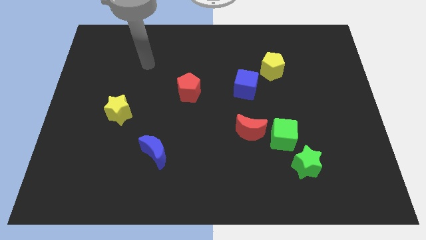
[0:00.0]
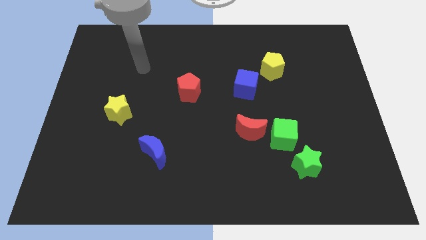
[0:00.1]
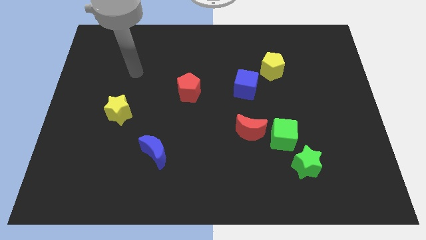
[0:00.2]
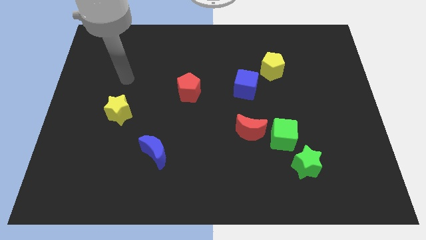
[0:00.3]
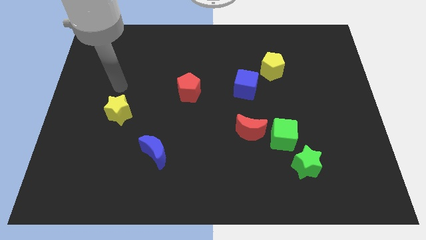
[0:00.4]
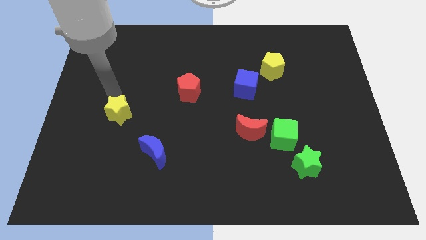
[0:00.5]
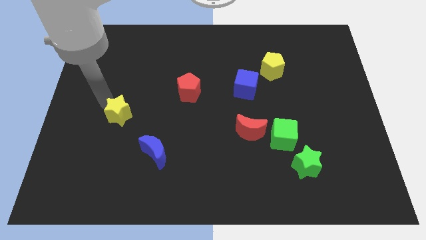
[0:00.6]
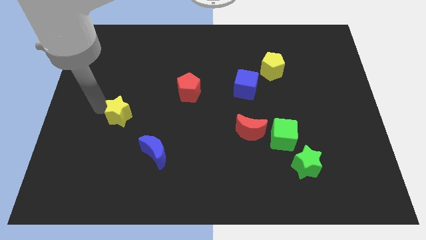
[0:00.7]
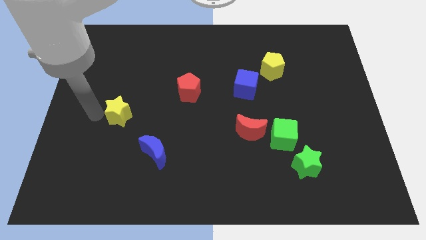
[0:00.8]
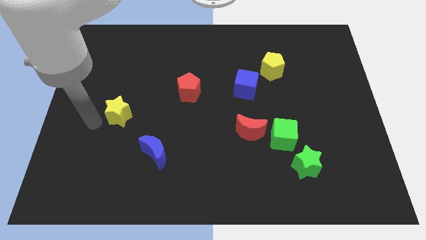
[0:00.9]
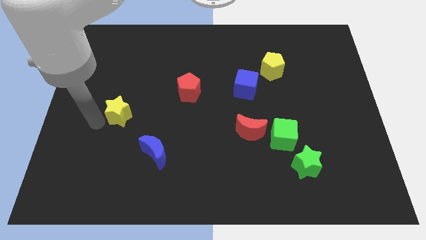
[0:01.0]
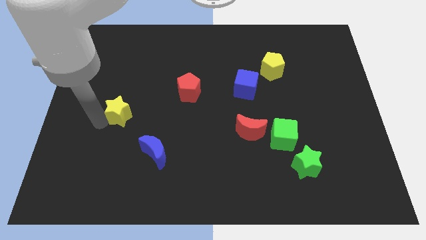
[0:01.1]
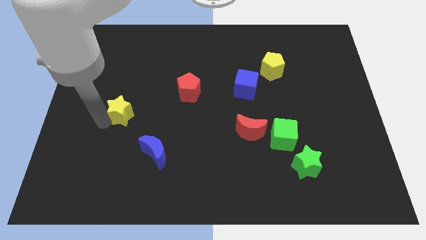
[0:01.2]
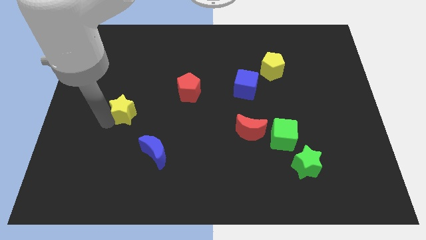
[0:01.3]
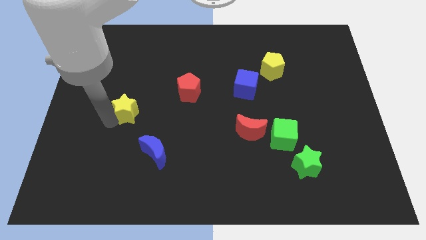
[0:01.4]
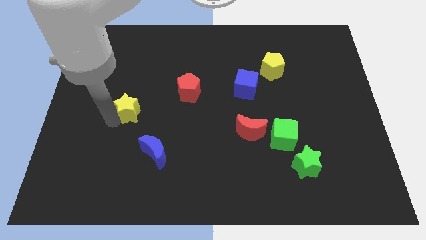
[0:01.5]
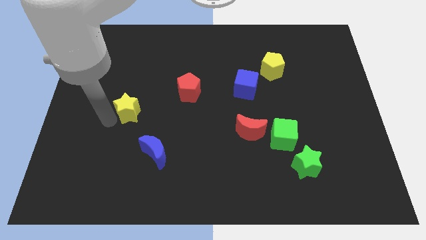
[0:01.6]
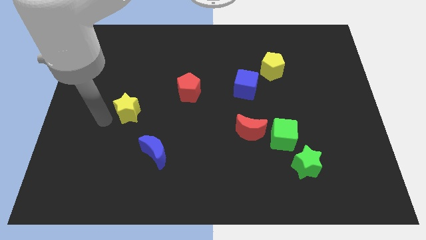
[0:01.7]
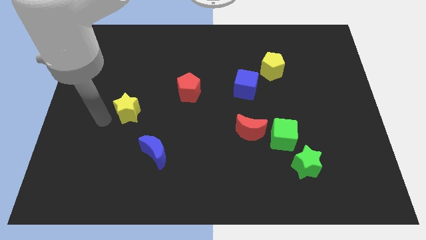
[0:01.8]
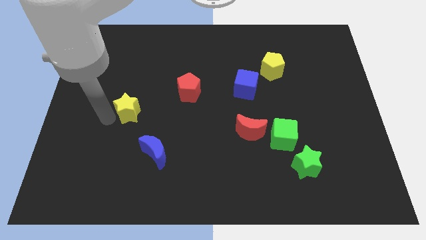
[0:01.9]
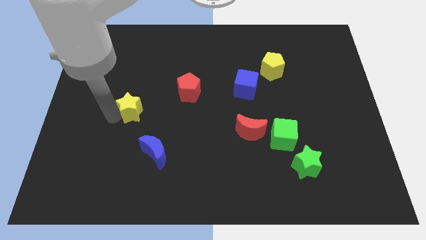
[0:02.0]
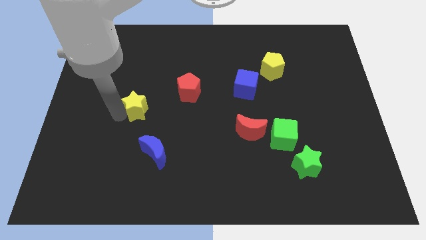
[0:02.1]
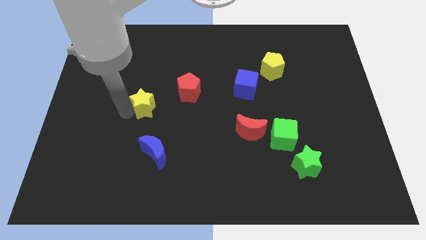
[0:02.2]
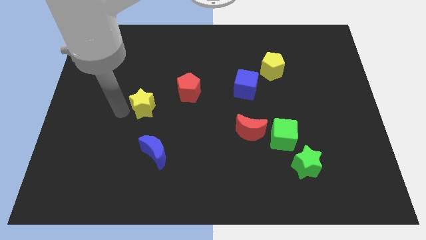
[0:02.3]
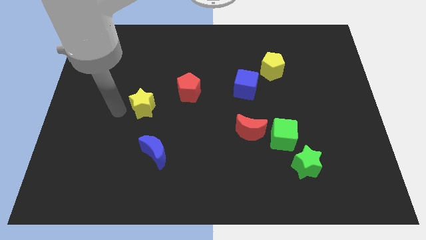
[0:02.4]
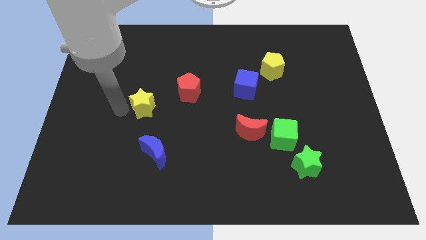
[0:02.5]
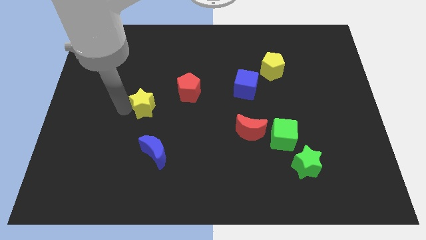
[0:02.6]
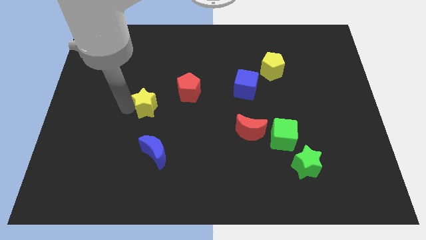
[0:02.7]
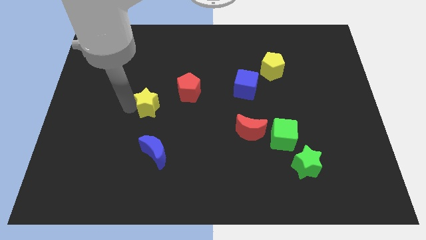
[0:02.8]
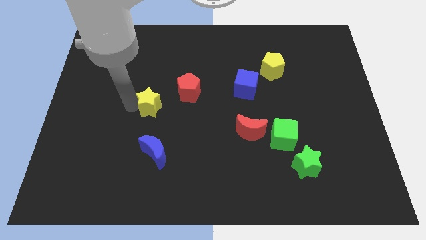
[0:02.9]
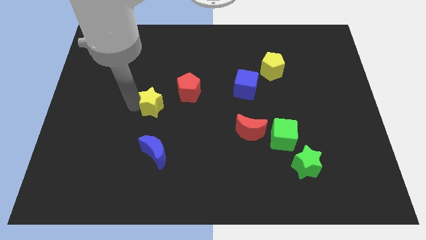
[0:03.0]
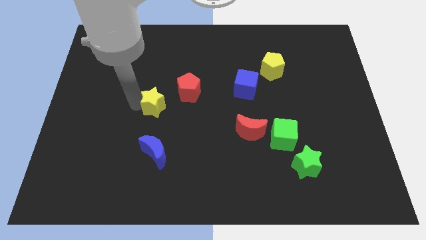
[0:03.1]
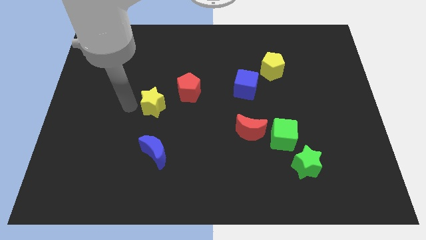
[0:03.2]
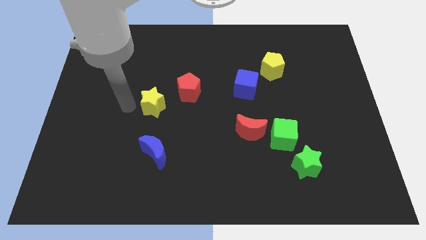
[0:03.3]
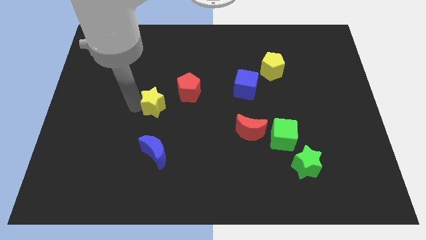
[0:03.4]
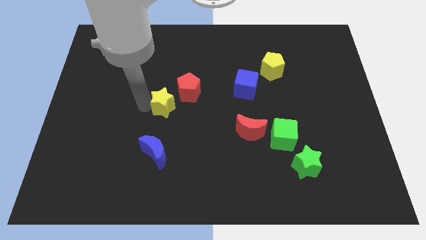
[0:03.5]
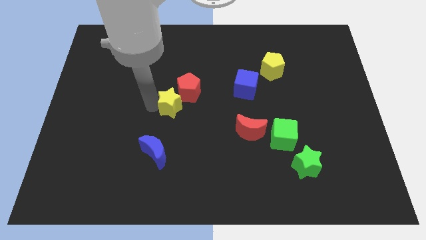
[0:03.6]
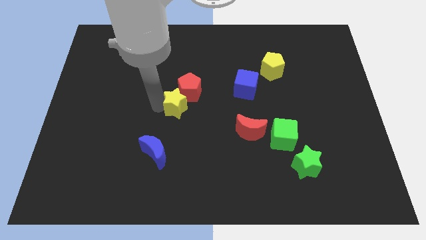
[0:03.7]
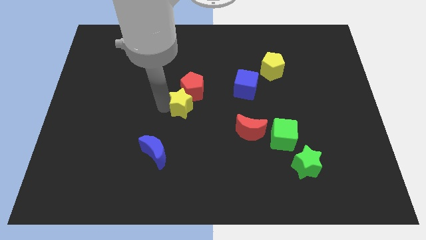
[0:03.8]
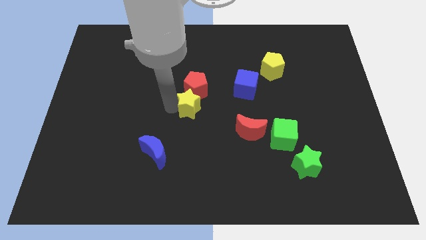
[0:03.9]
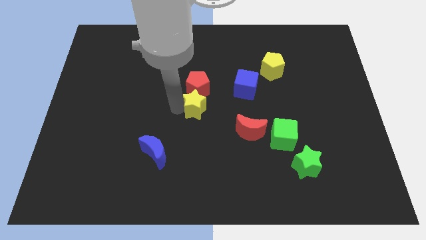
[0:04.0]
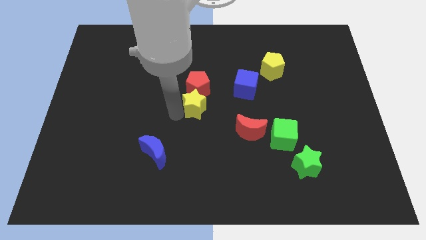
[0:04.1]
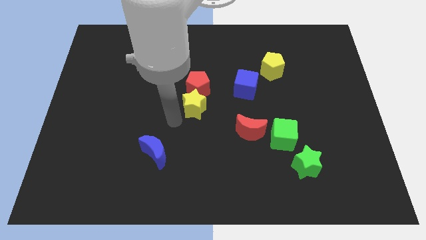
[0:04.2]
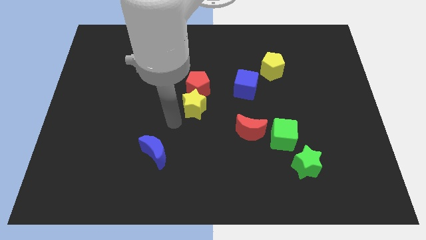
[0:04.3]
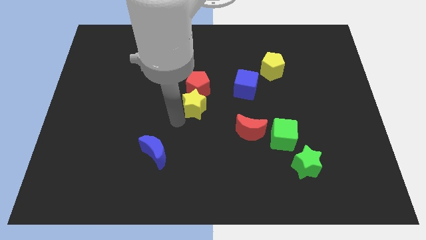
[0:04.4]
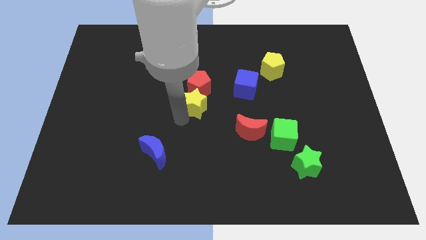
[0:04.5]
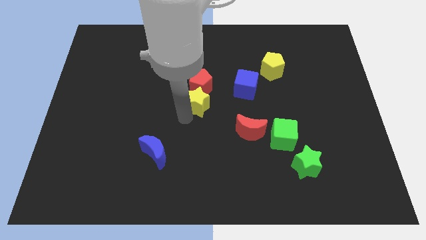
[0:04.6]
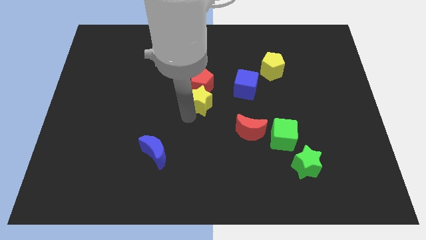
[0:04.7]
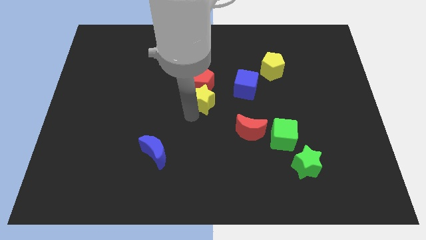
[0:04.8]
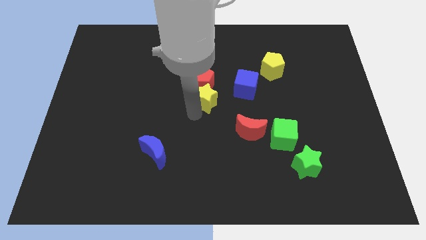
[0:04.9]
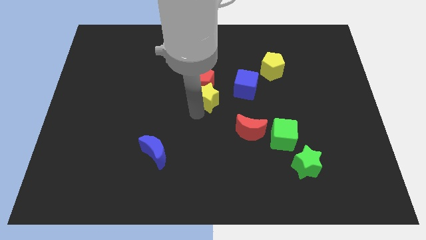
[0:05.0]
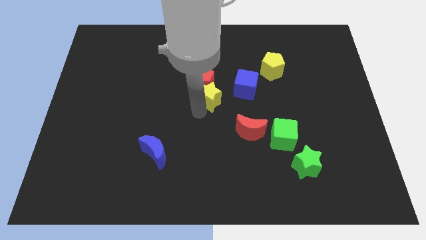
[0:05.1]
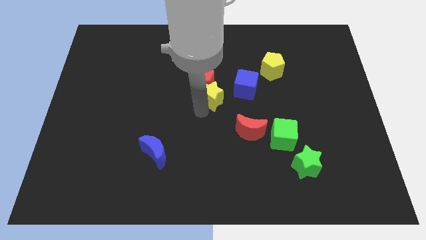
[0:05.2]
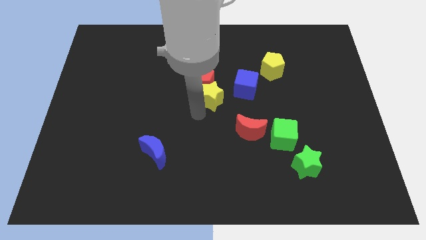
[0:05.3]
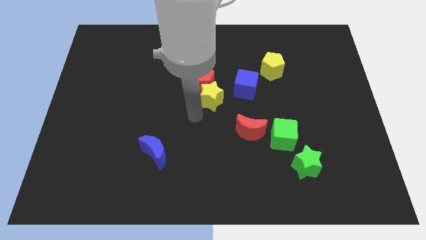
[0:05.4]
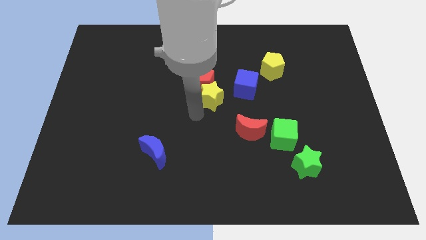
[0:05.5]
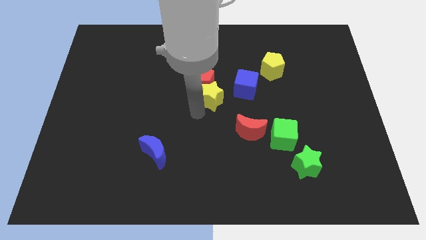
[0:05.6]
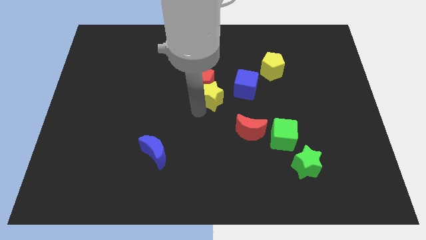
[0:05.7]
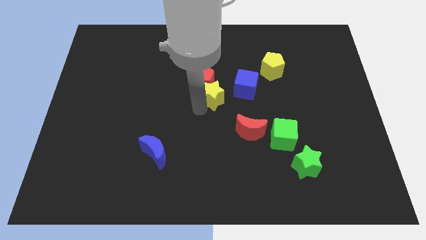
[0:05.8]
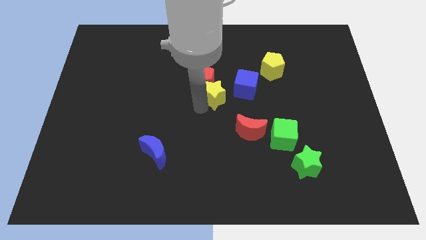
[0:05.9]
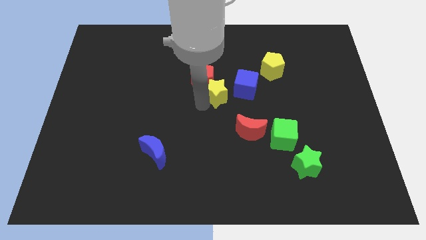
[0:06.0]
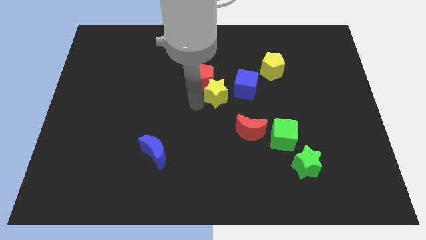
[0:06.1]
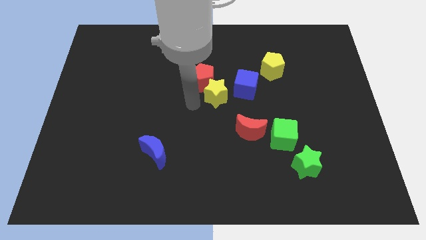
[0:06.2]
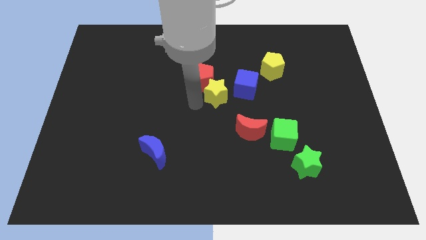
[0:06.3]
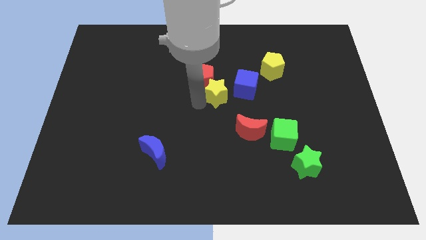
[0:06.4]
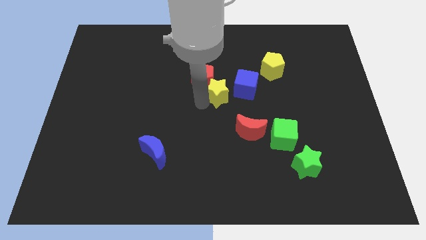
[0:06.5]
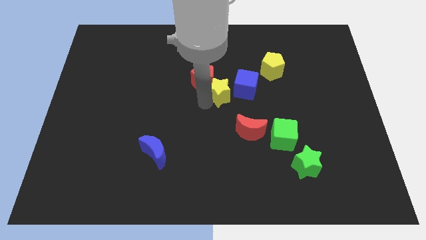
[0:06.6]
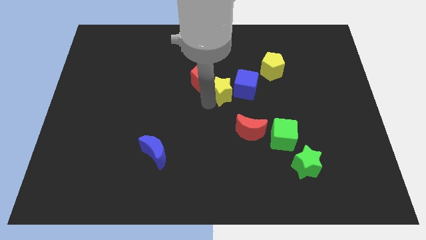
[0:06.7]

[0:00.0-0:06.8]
push the yellow star next to the blue cube

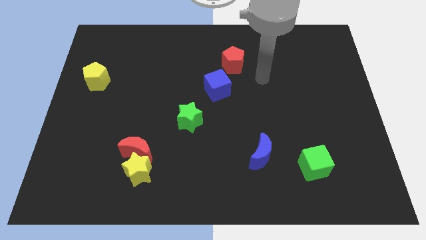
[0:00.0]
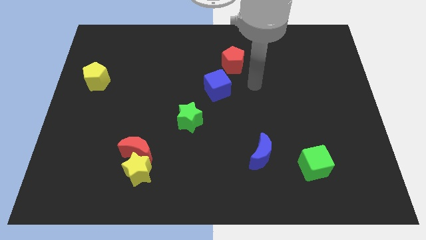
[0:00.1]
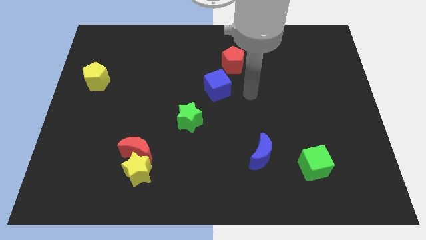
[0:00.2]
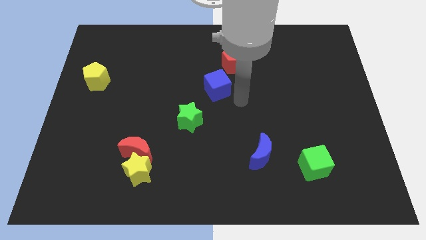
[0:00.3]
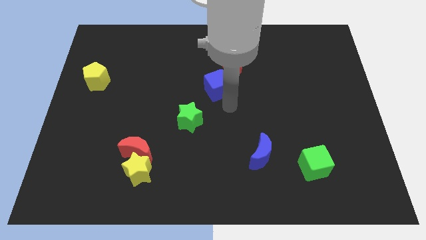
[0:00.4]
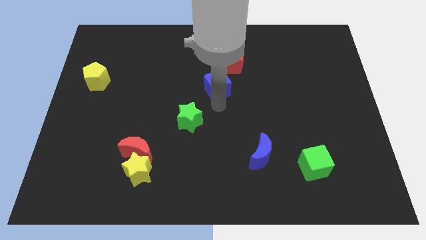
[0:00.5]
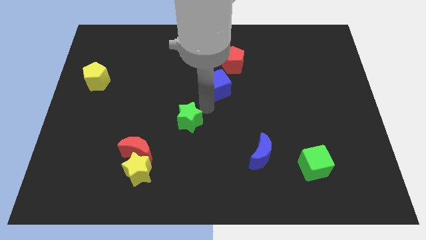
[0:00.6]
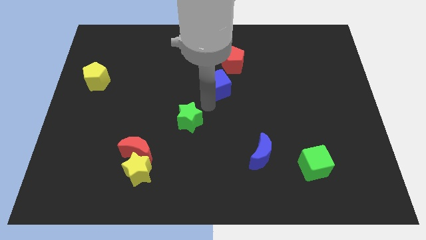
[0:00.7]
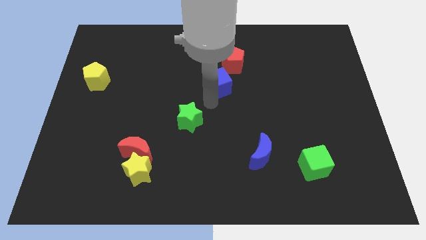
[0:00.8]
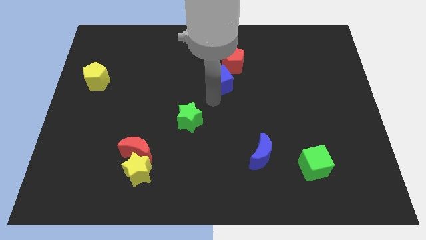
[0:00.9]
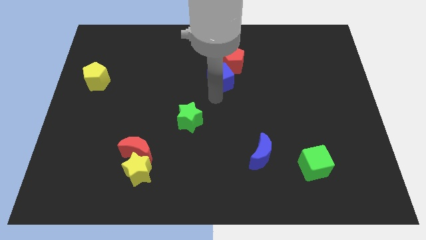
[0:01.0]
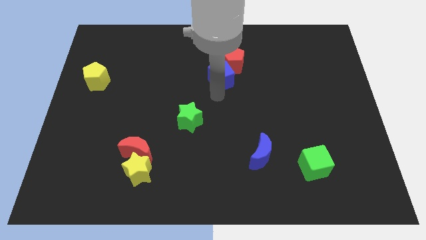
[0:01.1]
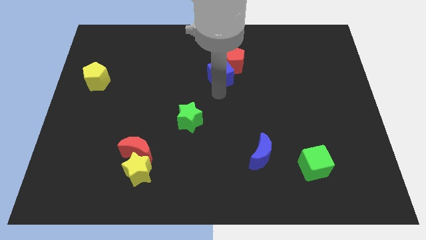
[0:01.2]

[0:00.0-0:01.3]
put the blue cube close to the red pentagon
